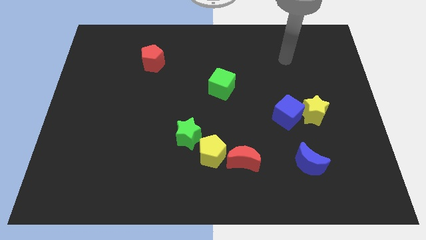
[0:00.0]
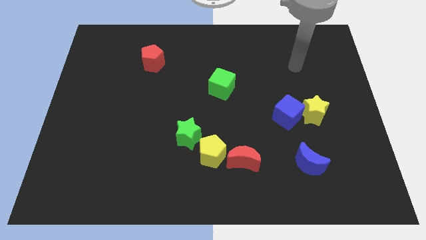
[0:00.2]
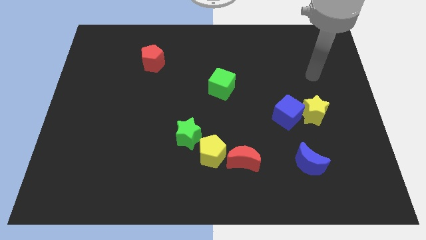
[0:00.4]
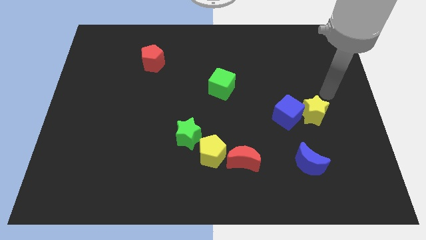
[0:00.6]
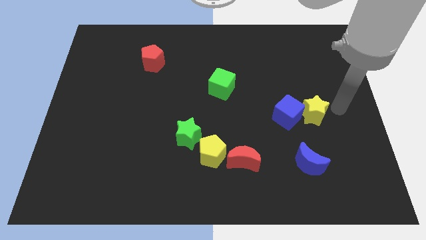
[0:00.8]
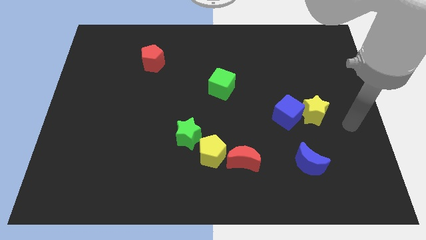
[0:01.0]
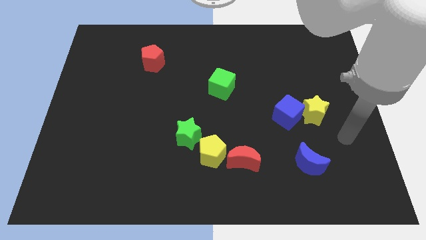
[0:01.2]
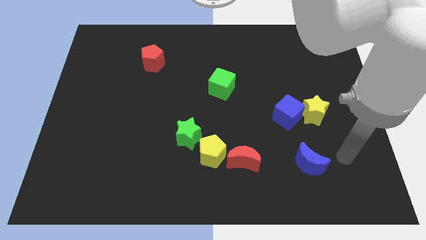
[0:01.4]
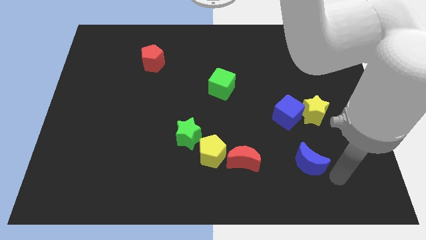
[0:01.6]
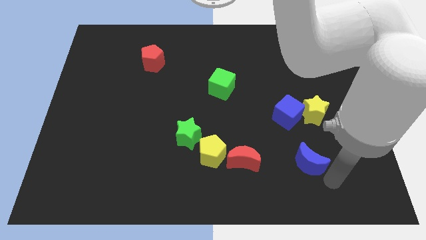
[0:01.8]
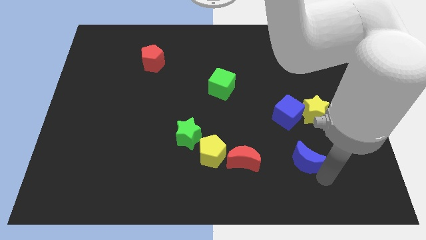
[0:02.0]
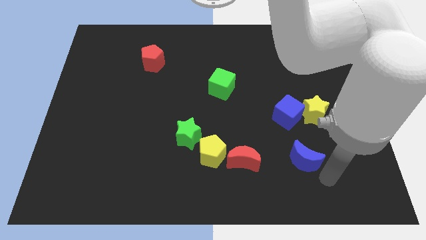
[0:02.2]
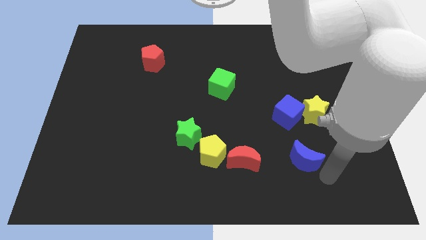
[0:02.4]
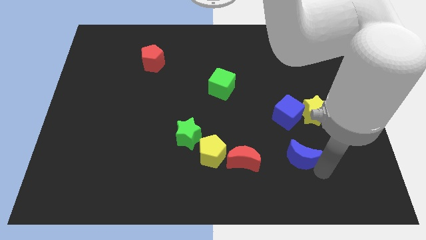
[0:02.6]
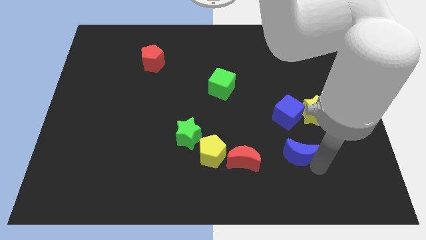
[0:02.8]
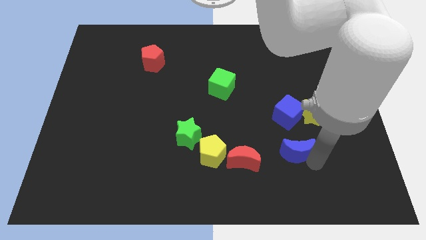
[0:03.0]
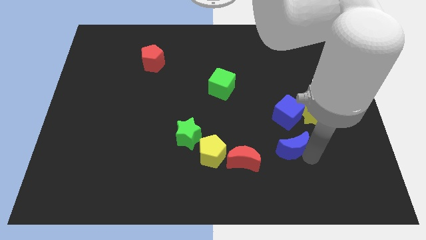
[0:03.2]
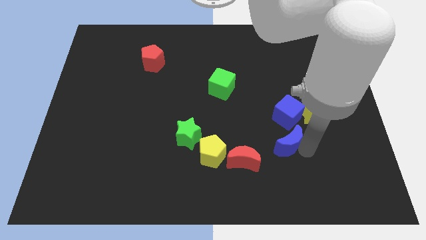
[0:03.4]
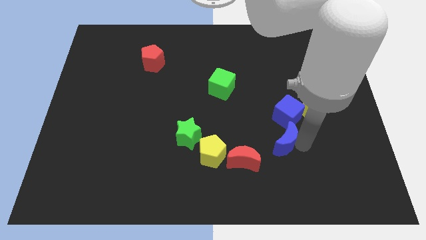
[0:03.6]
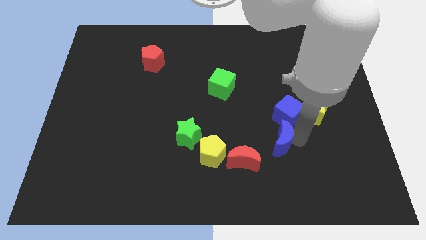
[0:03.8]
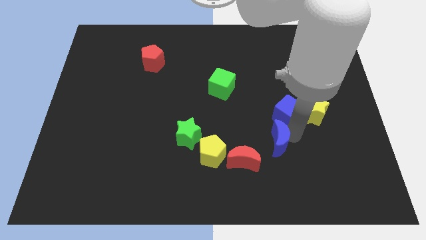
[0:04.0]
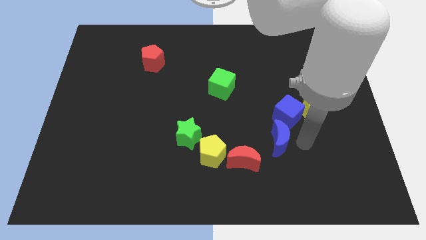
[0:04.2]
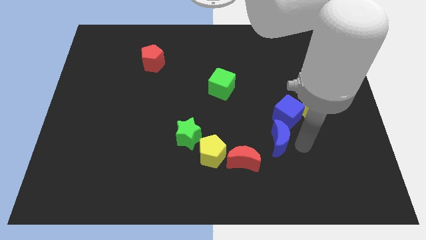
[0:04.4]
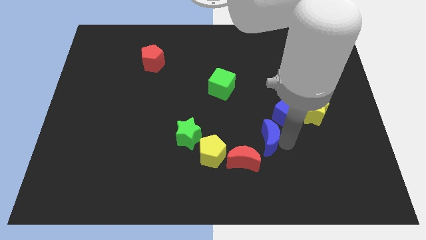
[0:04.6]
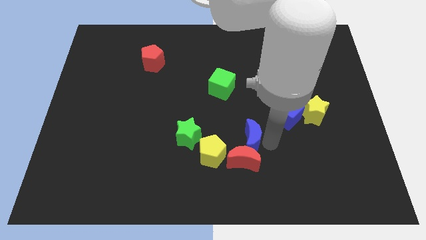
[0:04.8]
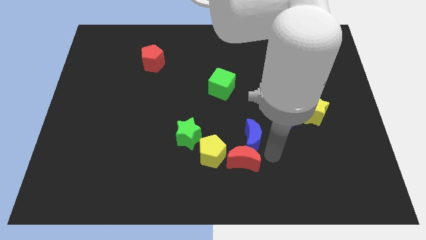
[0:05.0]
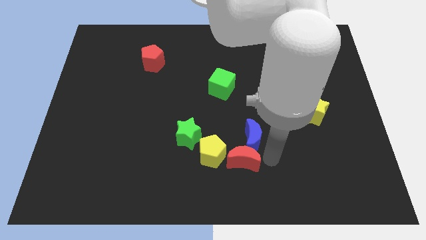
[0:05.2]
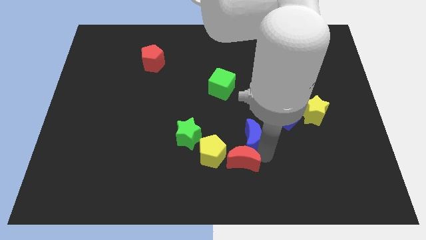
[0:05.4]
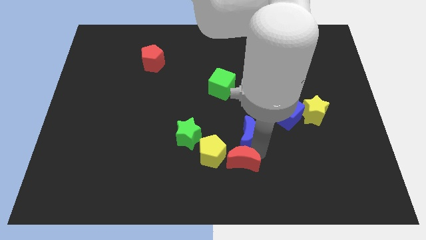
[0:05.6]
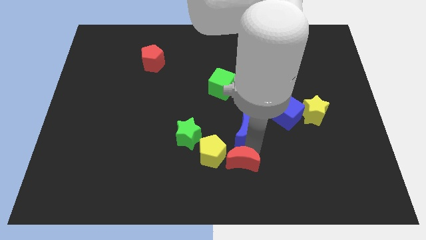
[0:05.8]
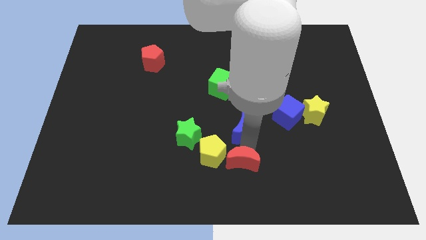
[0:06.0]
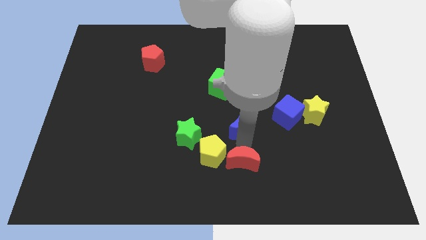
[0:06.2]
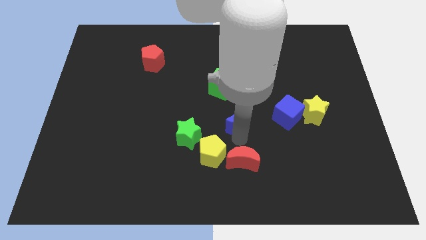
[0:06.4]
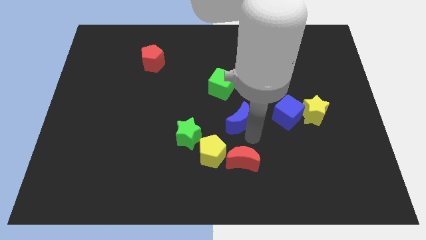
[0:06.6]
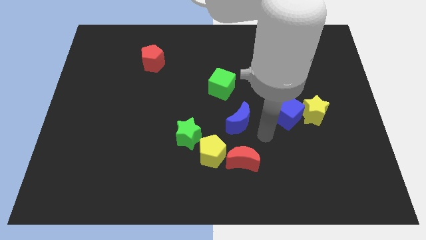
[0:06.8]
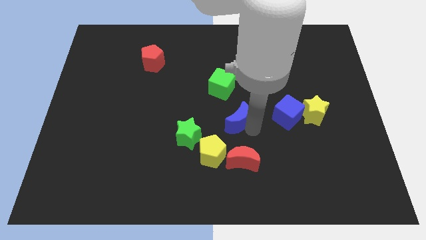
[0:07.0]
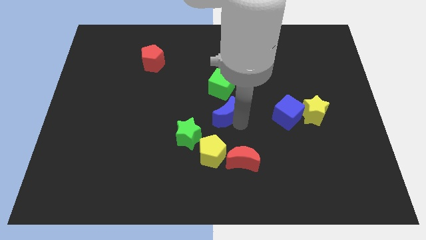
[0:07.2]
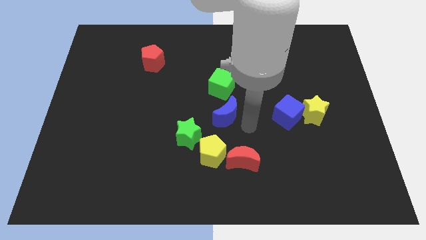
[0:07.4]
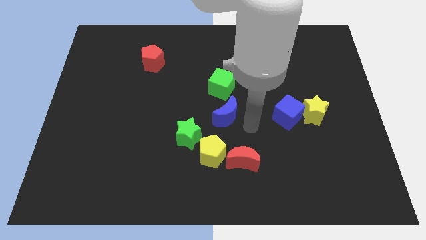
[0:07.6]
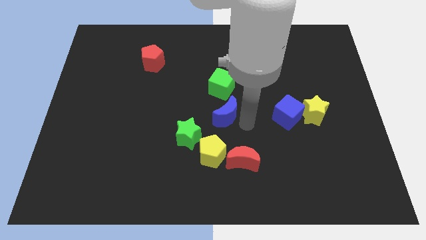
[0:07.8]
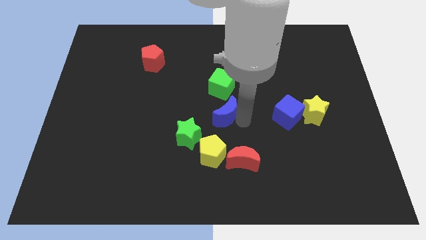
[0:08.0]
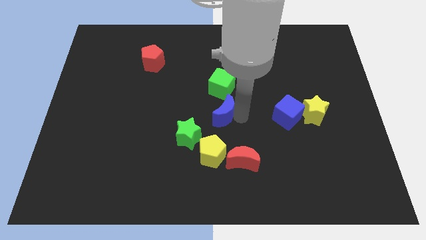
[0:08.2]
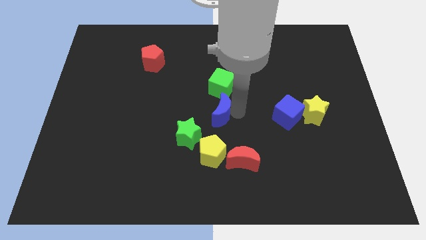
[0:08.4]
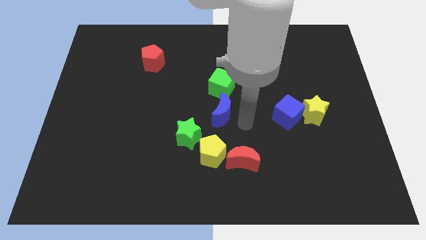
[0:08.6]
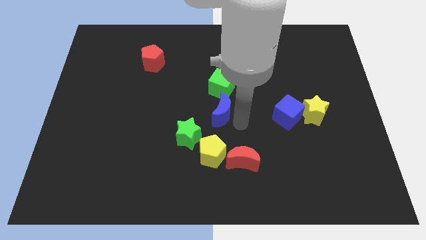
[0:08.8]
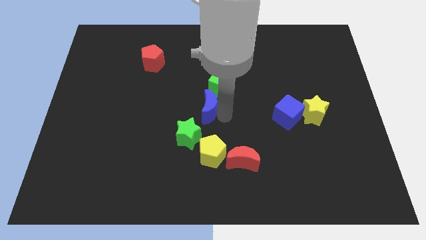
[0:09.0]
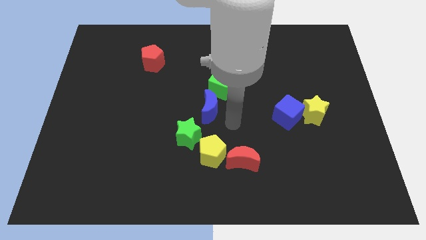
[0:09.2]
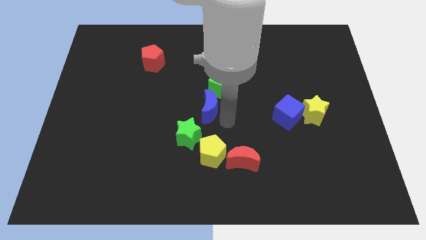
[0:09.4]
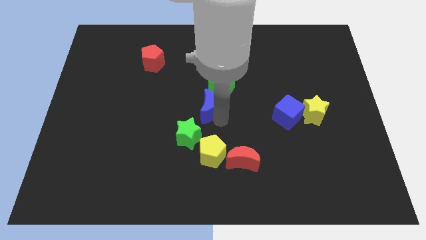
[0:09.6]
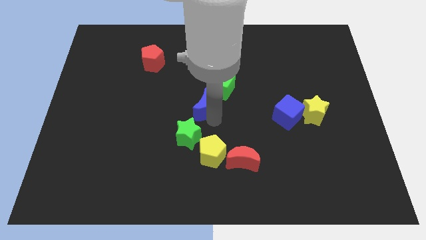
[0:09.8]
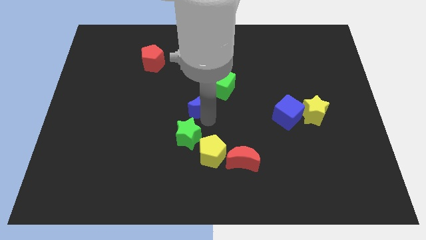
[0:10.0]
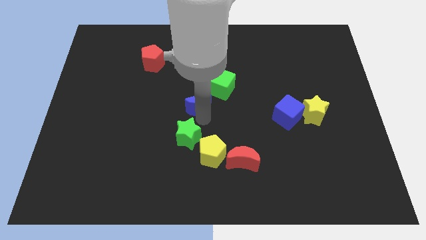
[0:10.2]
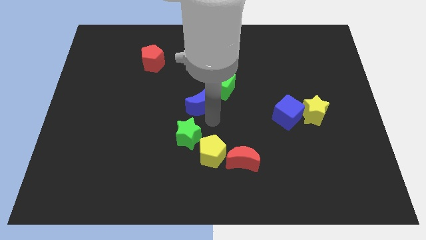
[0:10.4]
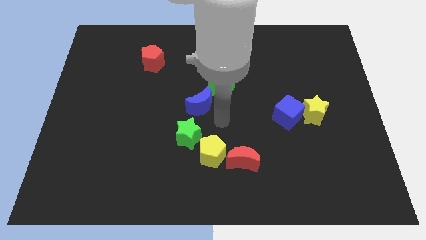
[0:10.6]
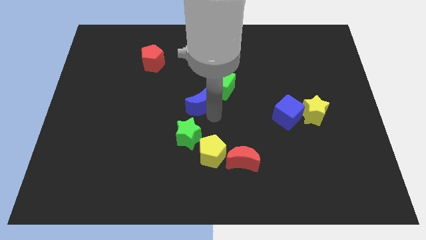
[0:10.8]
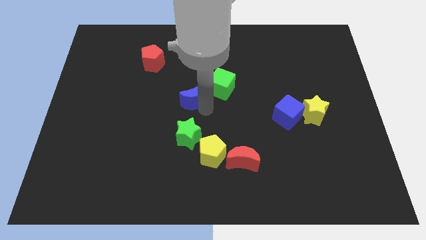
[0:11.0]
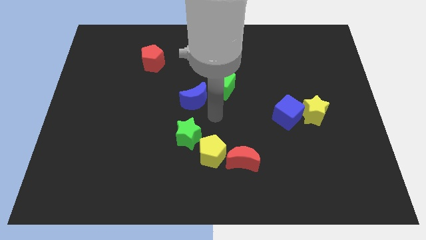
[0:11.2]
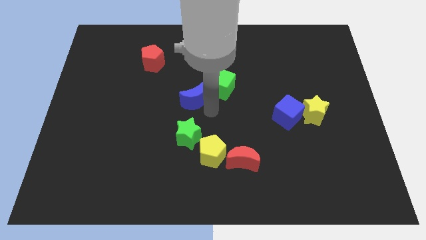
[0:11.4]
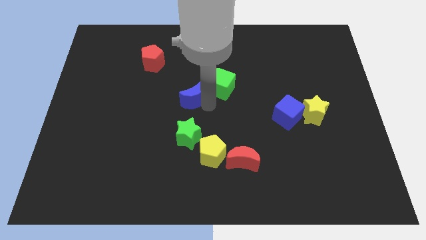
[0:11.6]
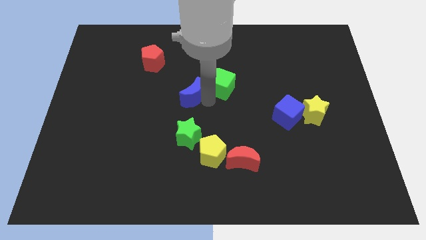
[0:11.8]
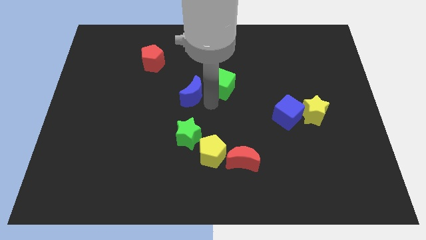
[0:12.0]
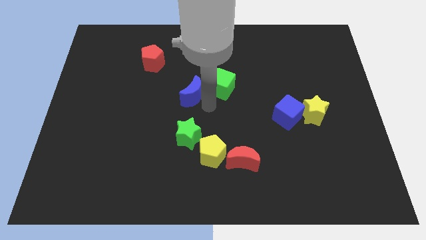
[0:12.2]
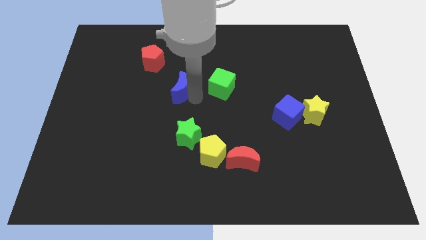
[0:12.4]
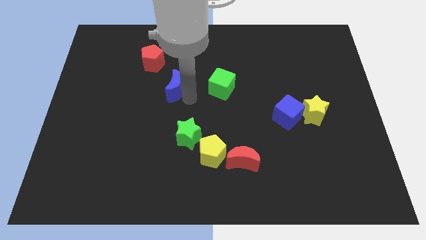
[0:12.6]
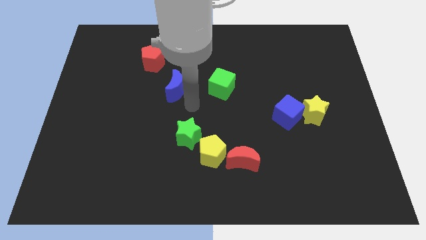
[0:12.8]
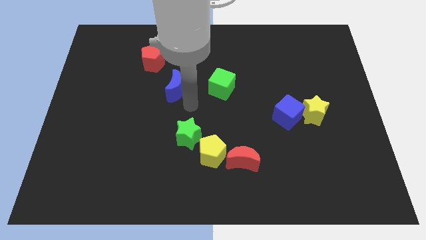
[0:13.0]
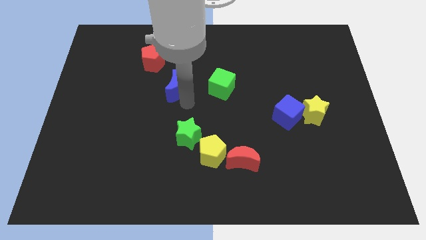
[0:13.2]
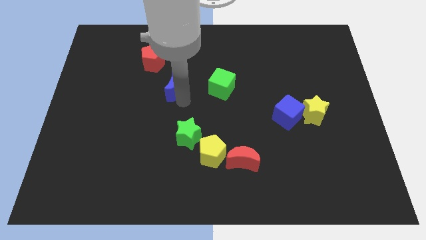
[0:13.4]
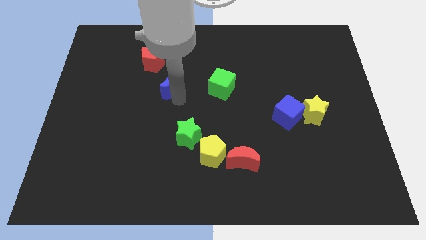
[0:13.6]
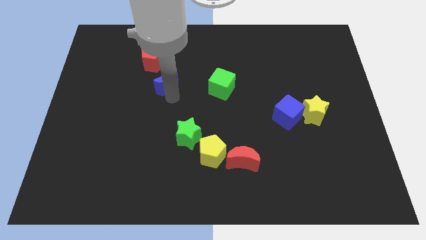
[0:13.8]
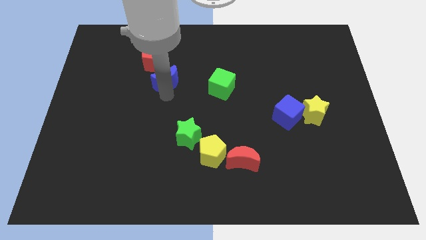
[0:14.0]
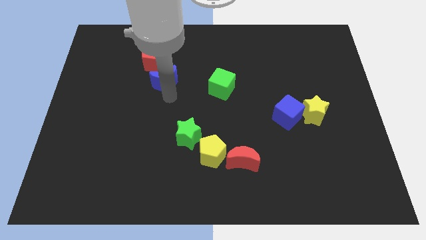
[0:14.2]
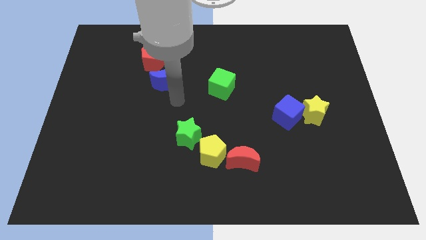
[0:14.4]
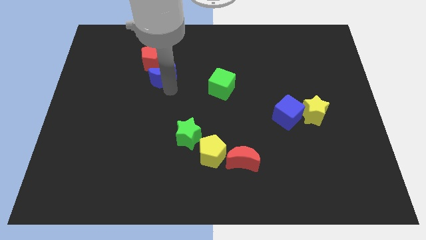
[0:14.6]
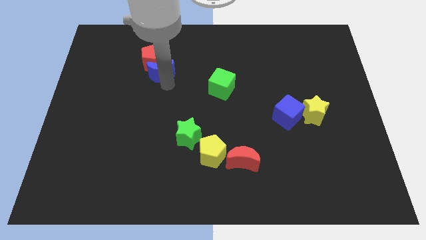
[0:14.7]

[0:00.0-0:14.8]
slide the blue moon next to the red pentagon
